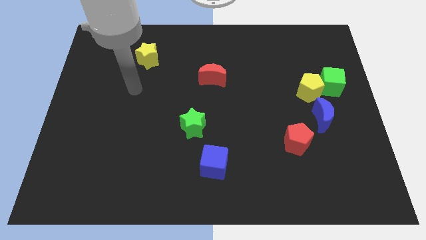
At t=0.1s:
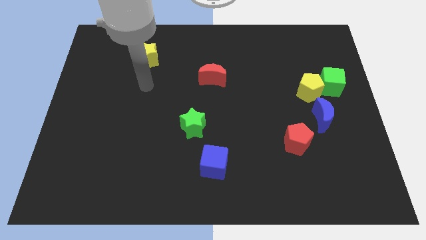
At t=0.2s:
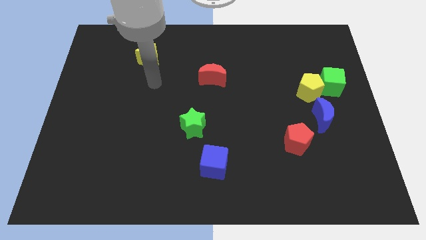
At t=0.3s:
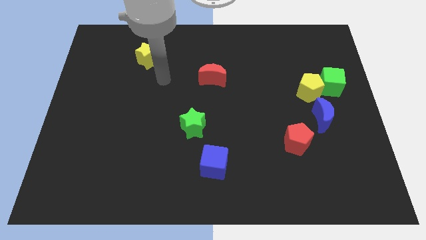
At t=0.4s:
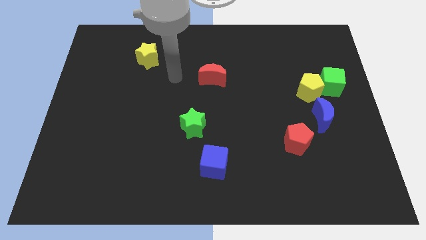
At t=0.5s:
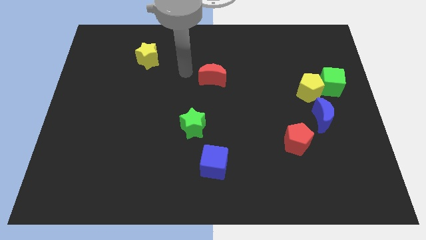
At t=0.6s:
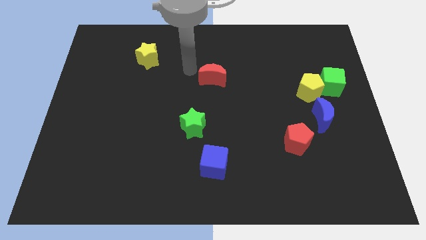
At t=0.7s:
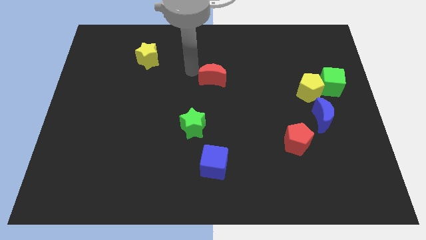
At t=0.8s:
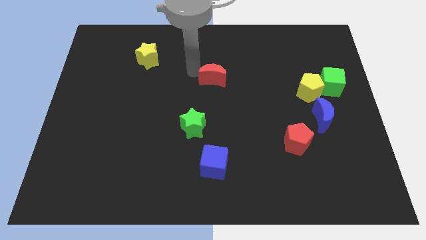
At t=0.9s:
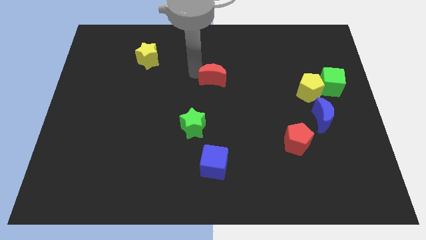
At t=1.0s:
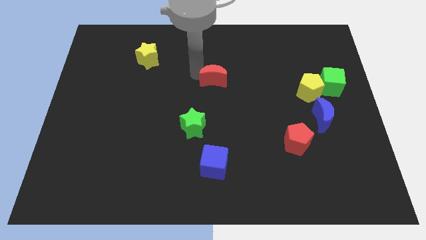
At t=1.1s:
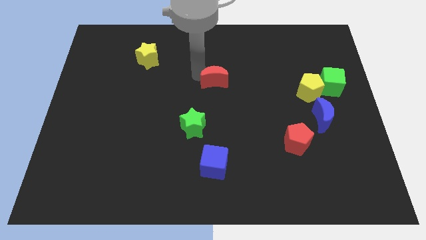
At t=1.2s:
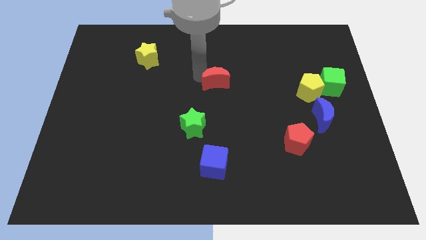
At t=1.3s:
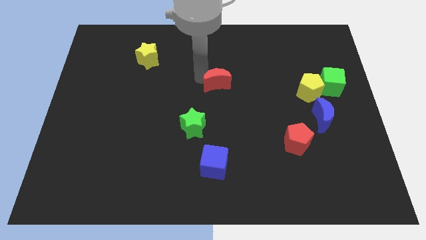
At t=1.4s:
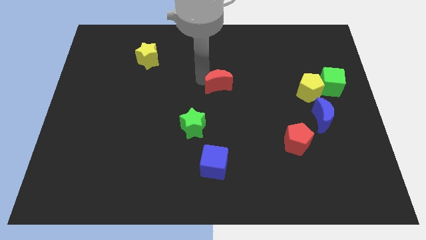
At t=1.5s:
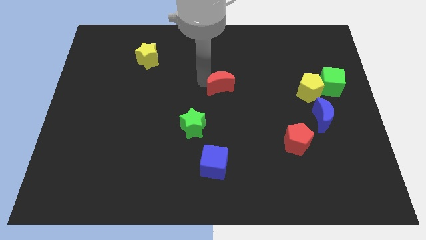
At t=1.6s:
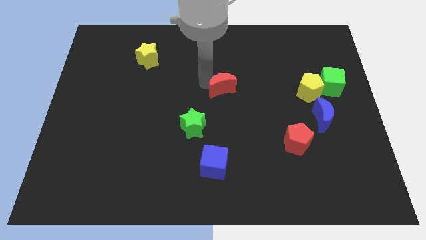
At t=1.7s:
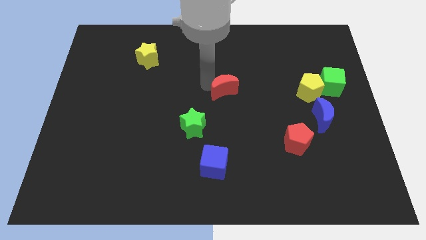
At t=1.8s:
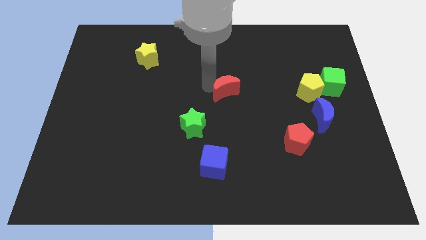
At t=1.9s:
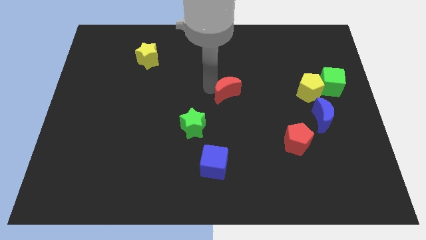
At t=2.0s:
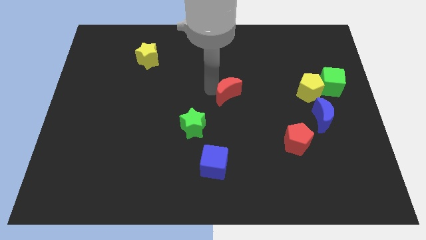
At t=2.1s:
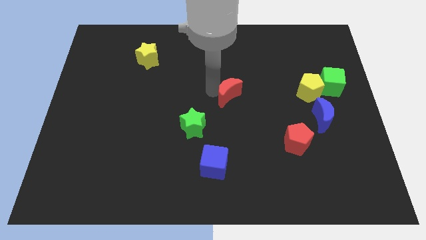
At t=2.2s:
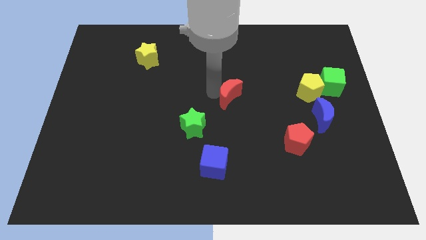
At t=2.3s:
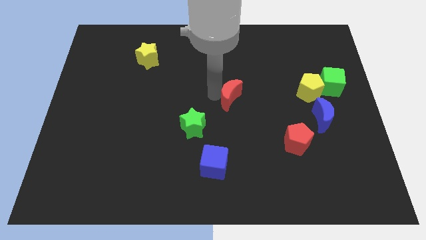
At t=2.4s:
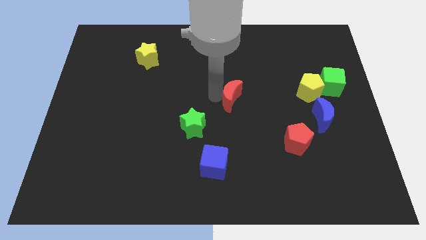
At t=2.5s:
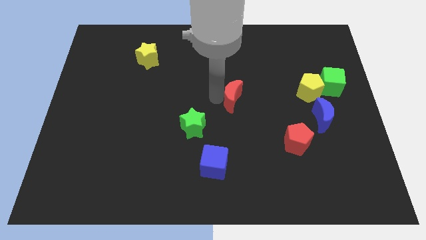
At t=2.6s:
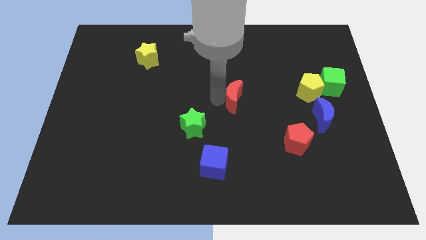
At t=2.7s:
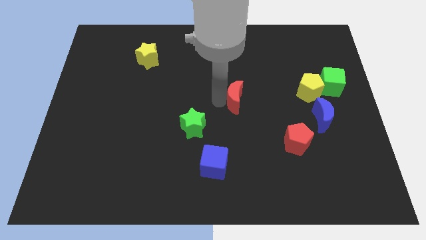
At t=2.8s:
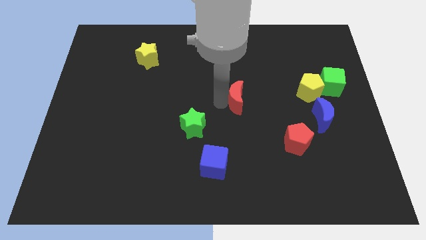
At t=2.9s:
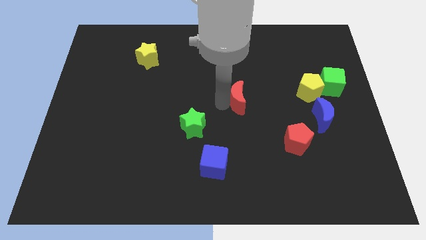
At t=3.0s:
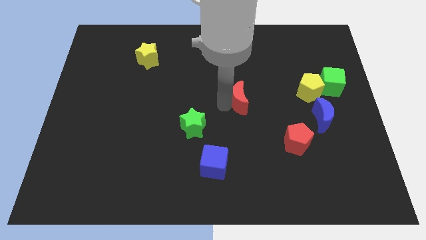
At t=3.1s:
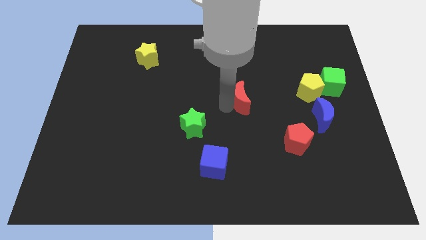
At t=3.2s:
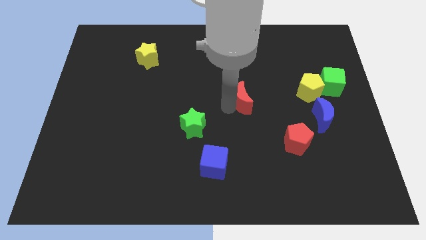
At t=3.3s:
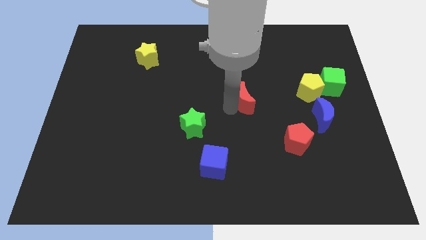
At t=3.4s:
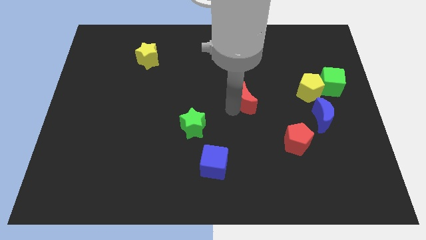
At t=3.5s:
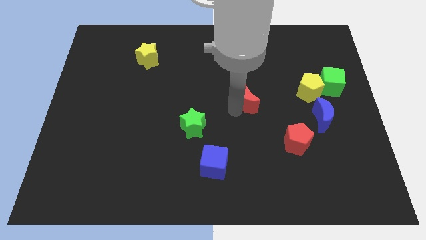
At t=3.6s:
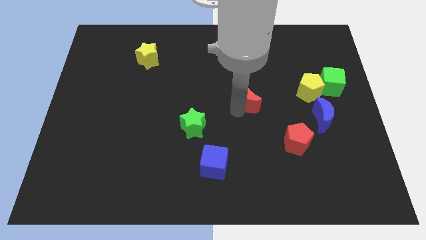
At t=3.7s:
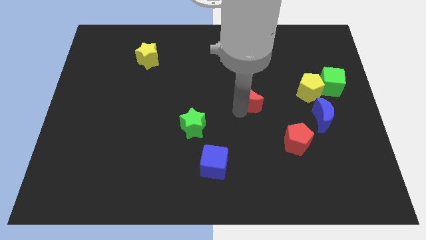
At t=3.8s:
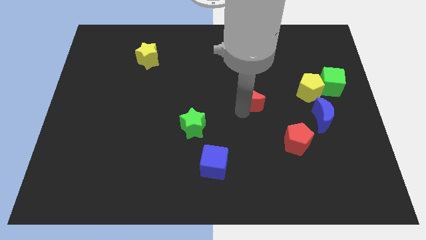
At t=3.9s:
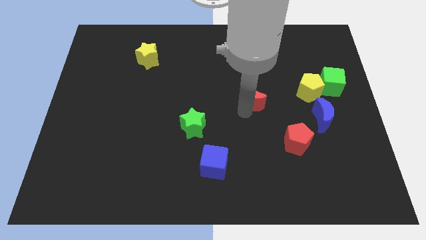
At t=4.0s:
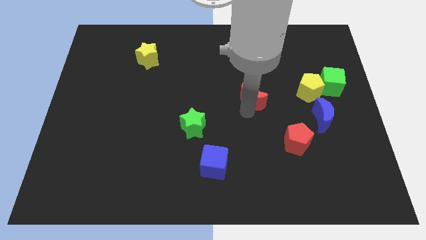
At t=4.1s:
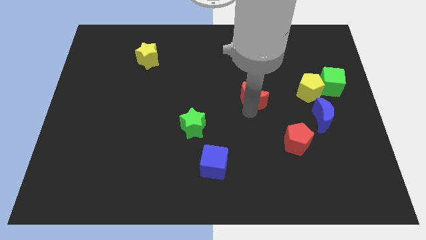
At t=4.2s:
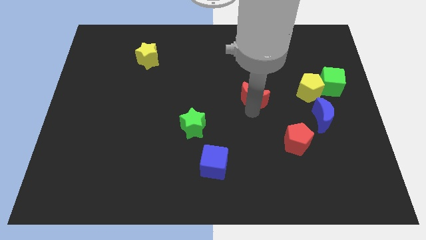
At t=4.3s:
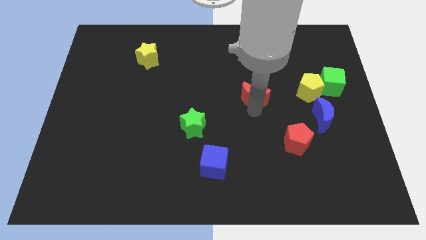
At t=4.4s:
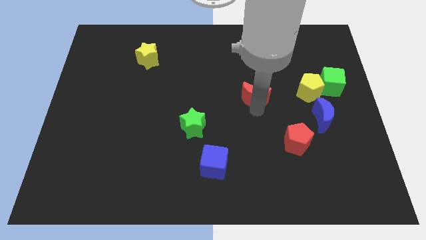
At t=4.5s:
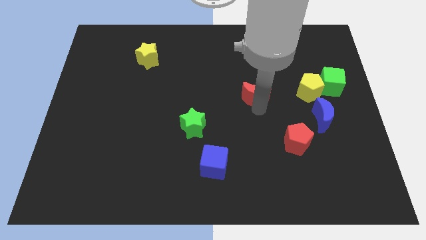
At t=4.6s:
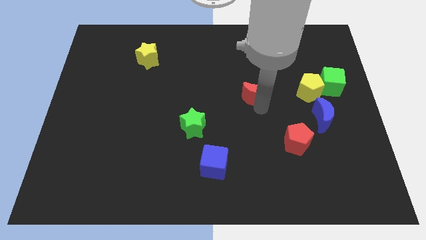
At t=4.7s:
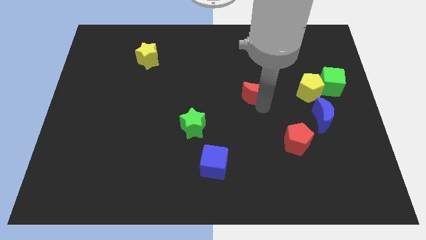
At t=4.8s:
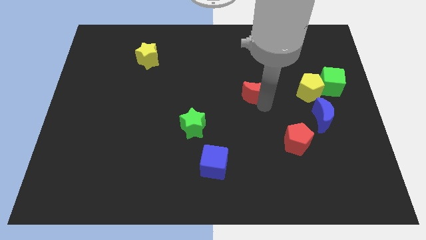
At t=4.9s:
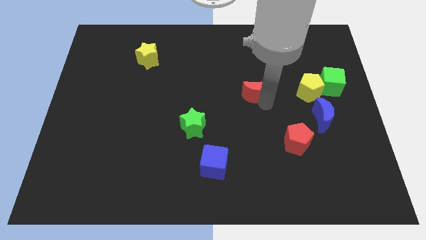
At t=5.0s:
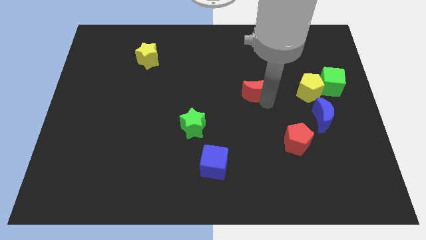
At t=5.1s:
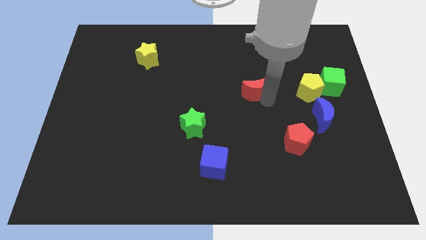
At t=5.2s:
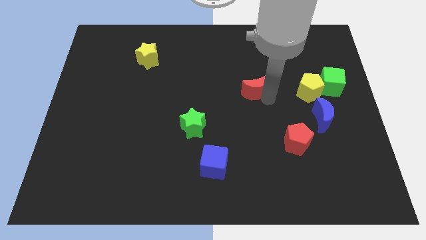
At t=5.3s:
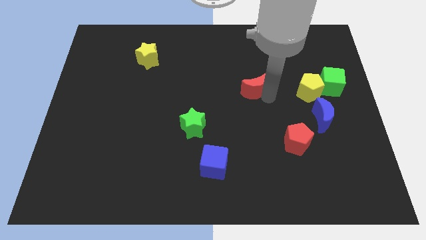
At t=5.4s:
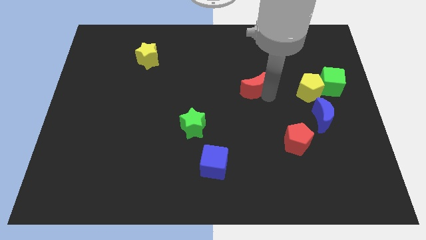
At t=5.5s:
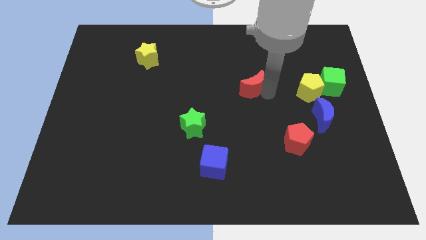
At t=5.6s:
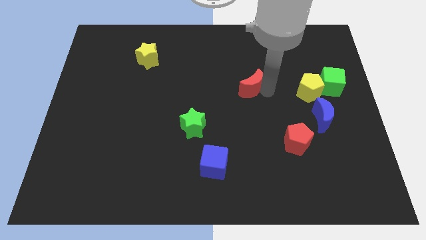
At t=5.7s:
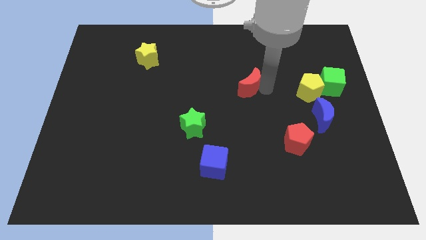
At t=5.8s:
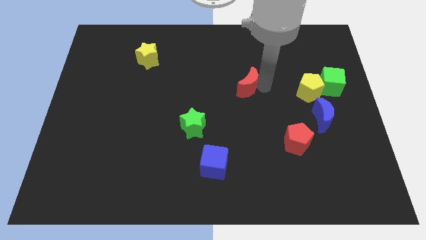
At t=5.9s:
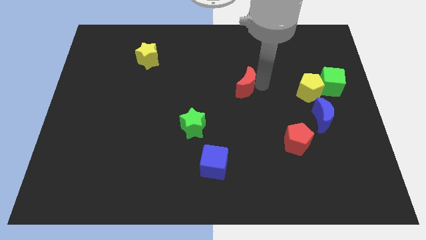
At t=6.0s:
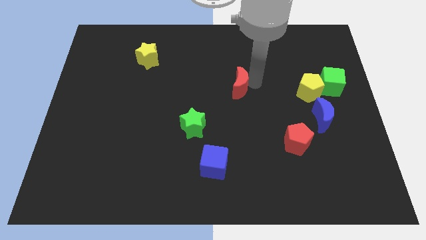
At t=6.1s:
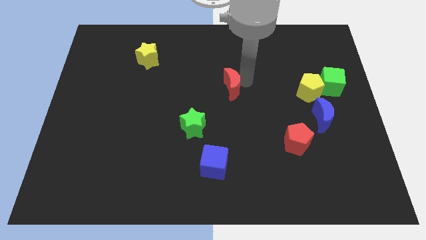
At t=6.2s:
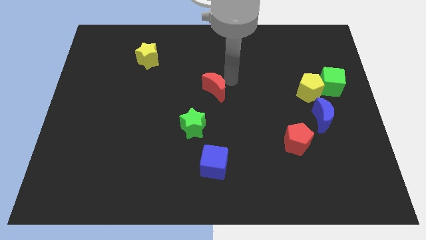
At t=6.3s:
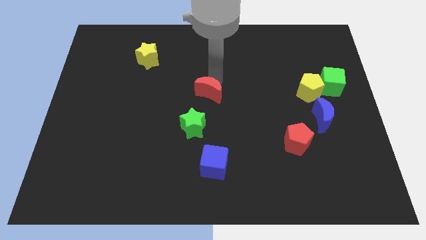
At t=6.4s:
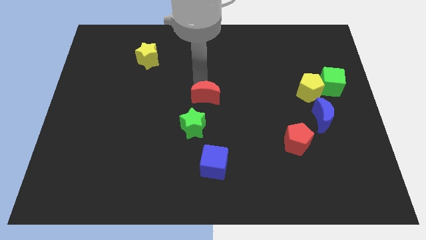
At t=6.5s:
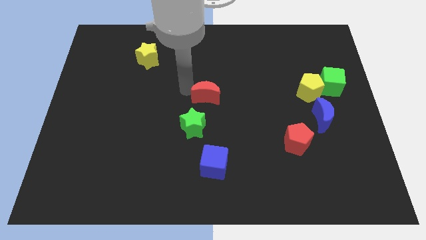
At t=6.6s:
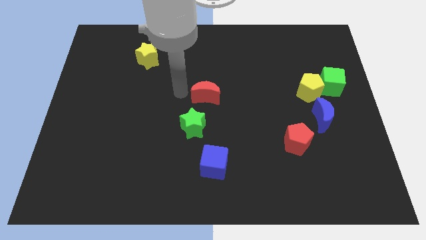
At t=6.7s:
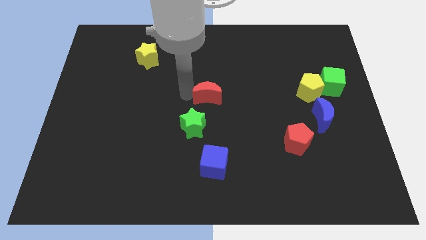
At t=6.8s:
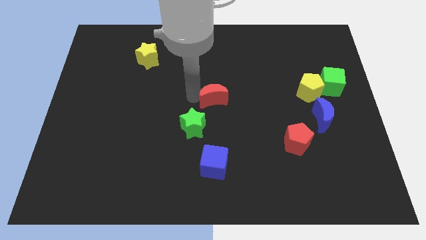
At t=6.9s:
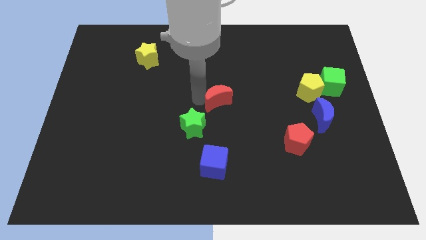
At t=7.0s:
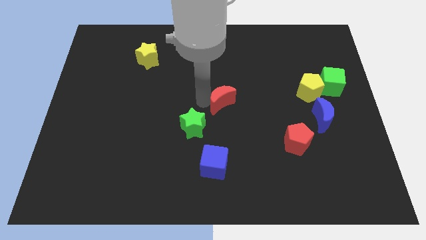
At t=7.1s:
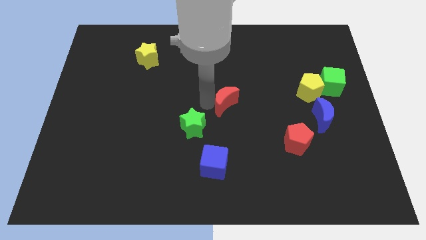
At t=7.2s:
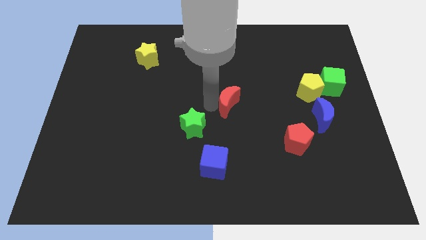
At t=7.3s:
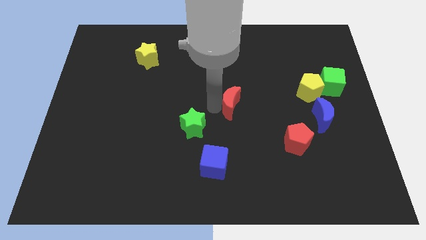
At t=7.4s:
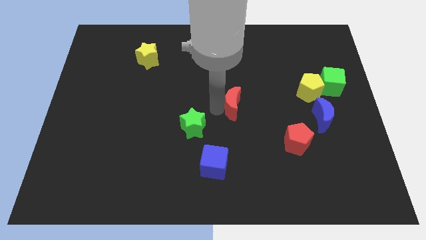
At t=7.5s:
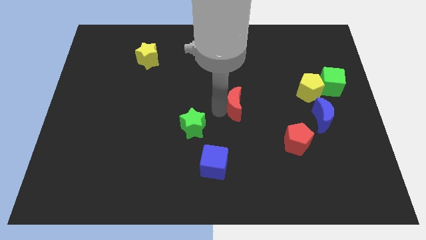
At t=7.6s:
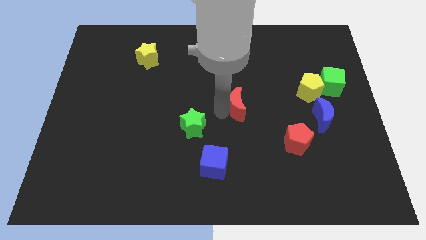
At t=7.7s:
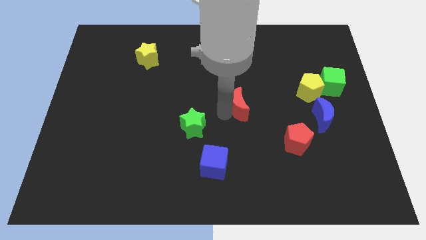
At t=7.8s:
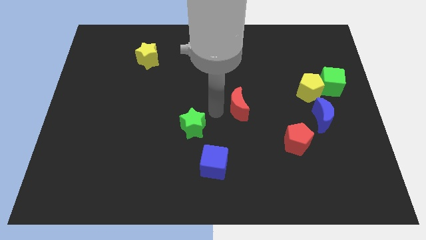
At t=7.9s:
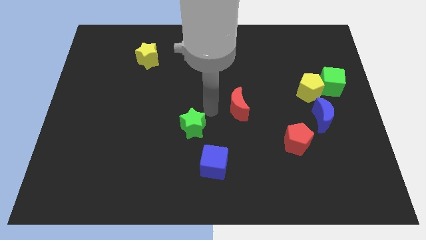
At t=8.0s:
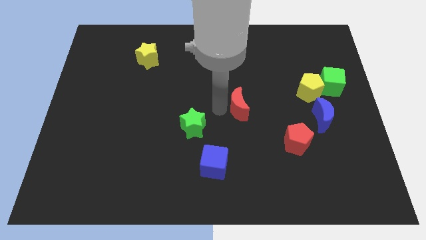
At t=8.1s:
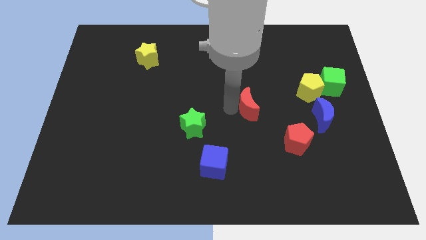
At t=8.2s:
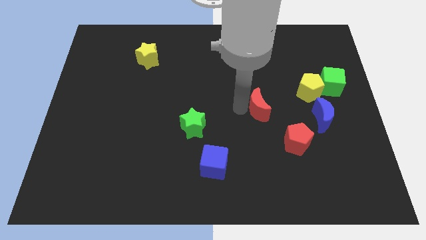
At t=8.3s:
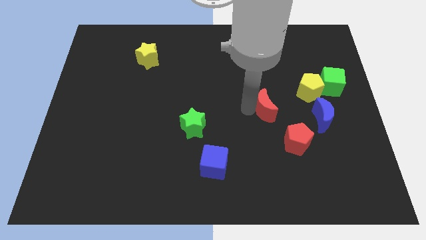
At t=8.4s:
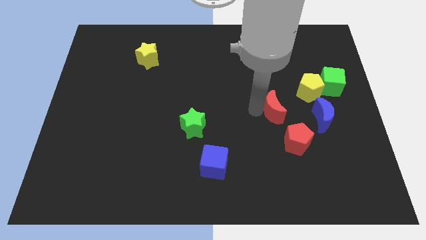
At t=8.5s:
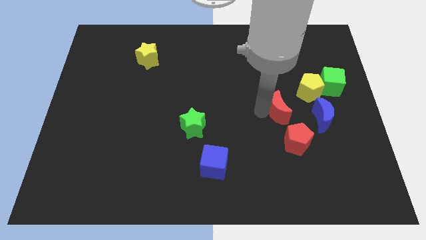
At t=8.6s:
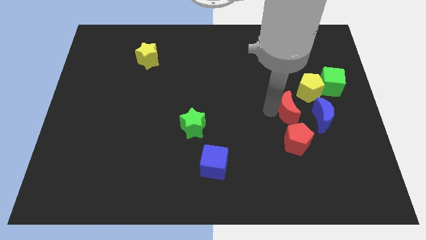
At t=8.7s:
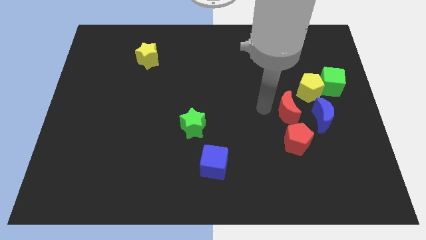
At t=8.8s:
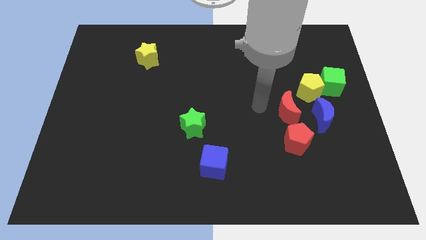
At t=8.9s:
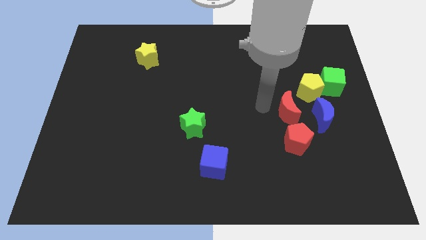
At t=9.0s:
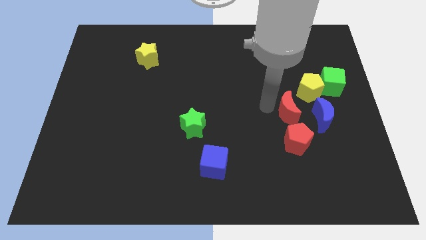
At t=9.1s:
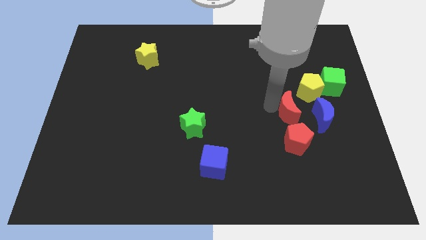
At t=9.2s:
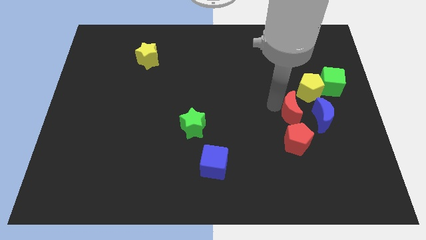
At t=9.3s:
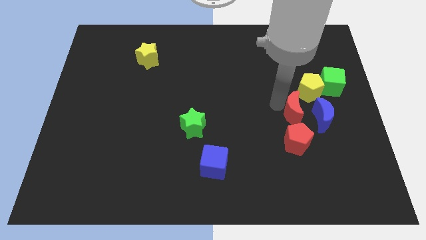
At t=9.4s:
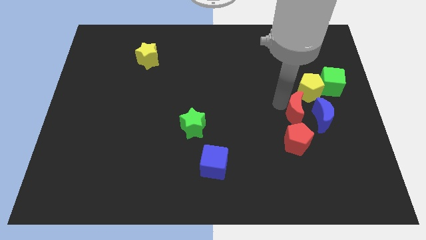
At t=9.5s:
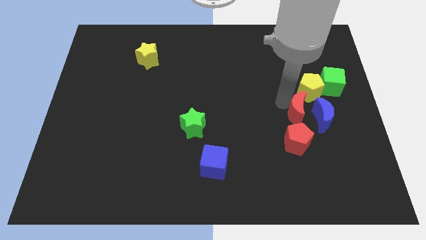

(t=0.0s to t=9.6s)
put the red moon towards the blue moon
